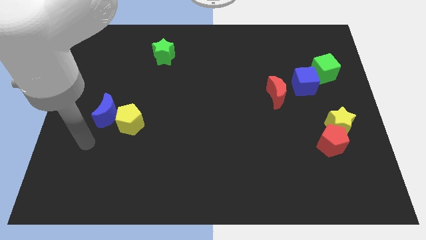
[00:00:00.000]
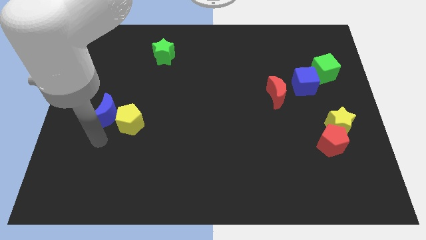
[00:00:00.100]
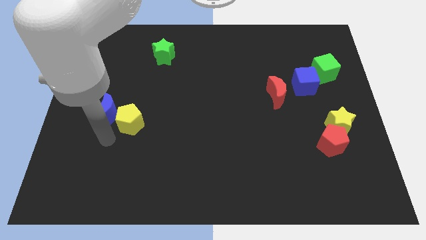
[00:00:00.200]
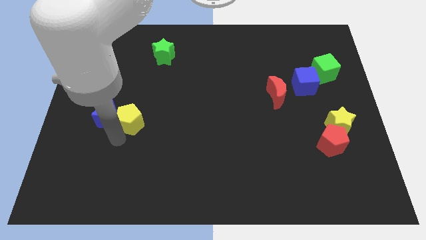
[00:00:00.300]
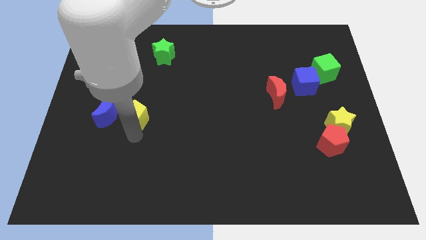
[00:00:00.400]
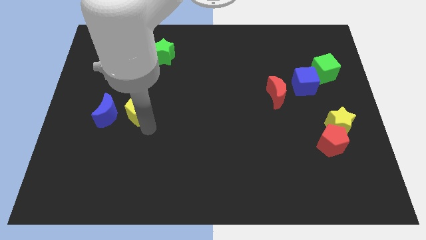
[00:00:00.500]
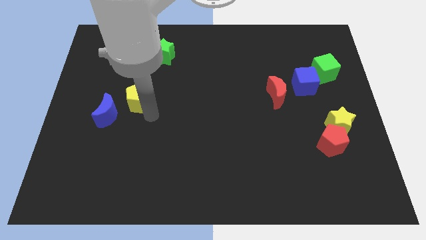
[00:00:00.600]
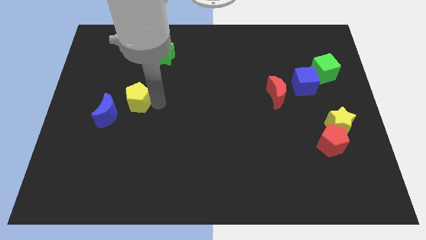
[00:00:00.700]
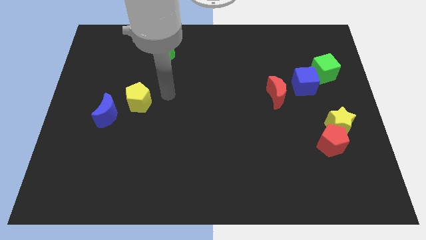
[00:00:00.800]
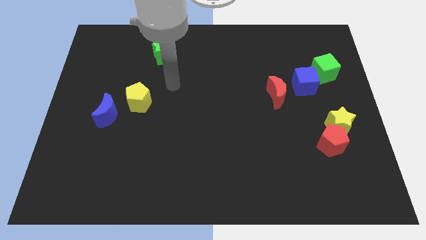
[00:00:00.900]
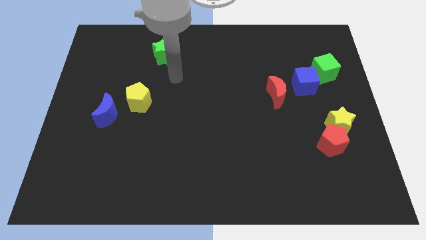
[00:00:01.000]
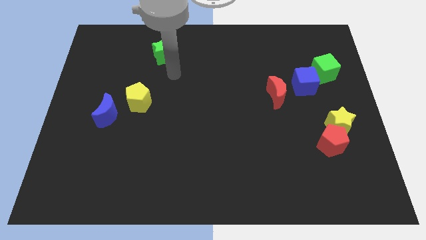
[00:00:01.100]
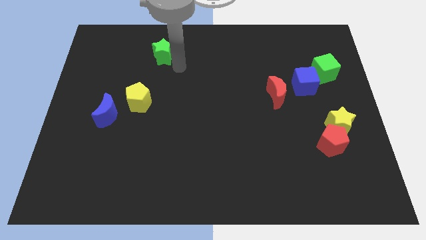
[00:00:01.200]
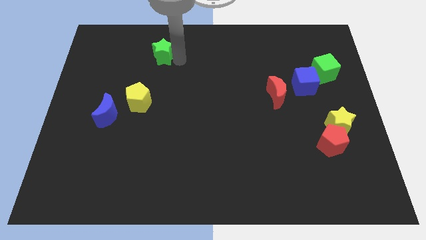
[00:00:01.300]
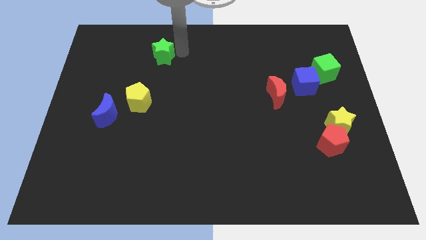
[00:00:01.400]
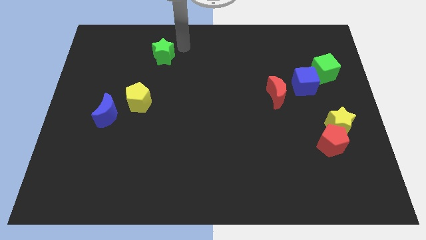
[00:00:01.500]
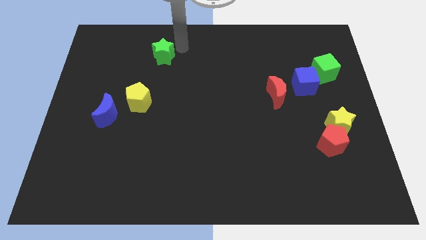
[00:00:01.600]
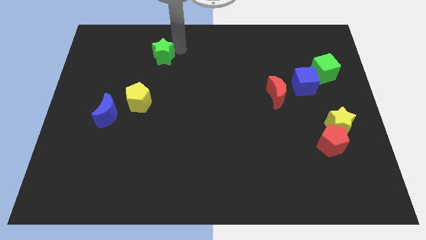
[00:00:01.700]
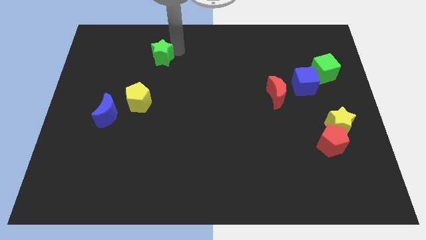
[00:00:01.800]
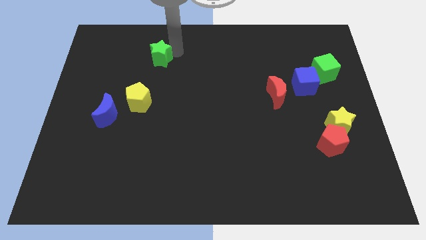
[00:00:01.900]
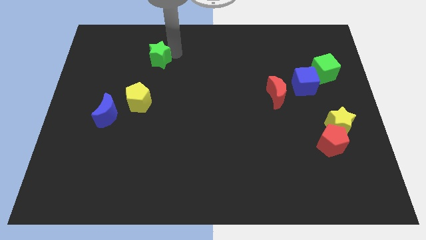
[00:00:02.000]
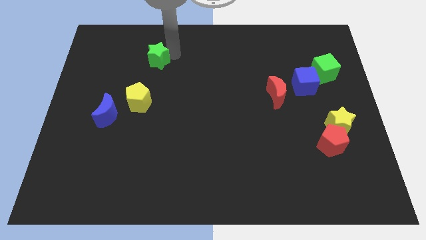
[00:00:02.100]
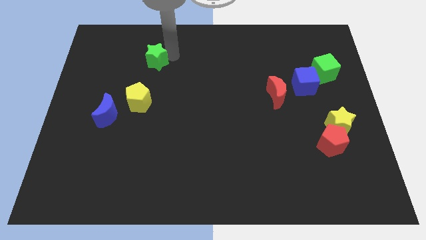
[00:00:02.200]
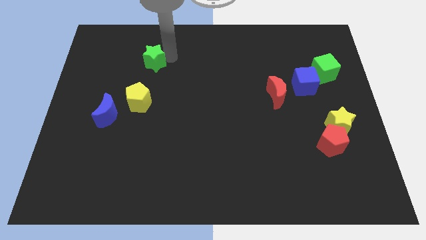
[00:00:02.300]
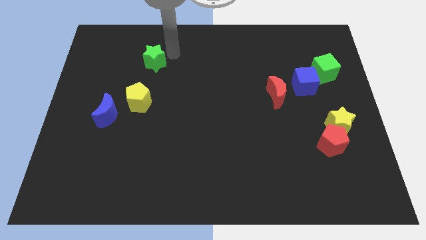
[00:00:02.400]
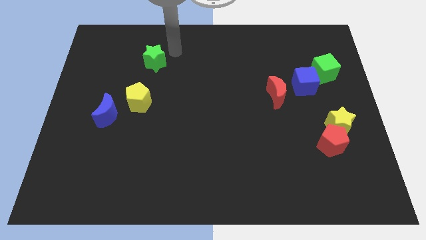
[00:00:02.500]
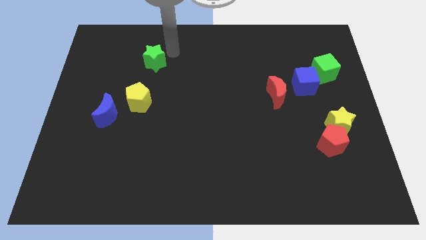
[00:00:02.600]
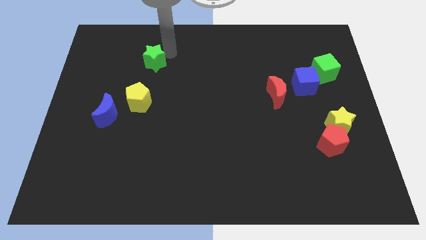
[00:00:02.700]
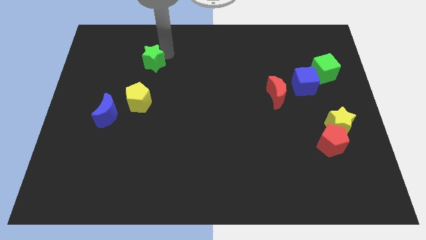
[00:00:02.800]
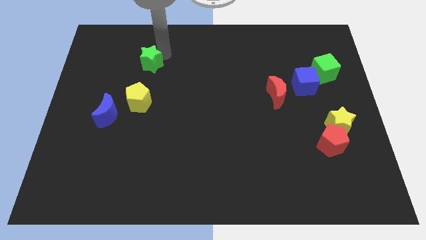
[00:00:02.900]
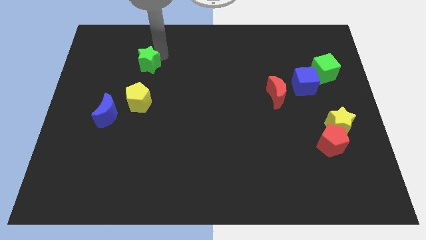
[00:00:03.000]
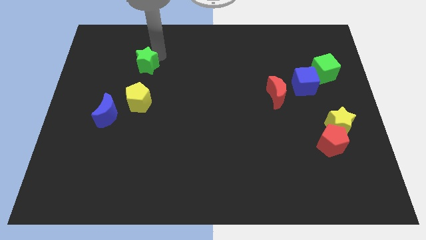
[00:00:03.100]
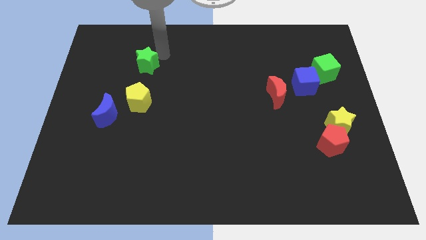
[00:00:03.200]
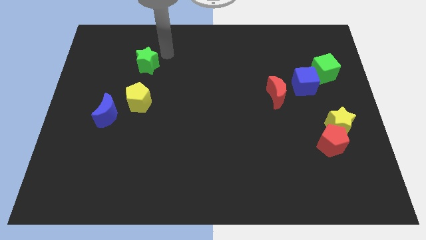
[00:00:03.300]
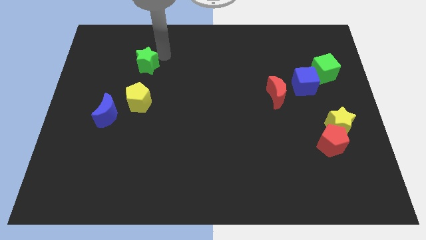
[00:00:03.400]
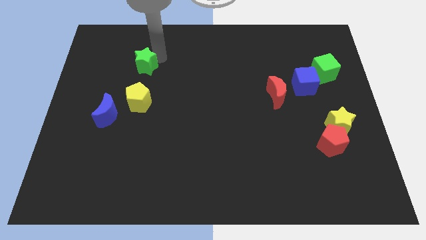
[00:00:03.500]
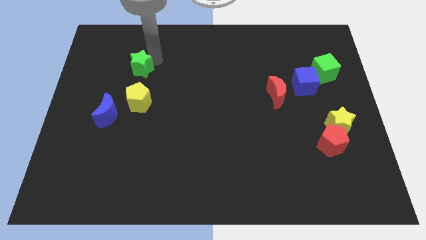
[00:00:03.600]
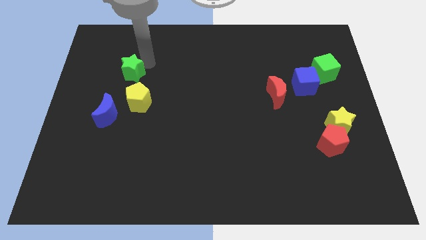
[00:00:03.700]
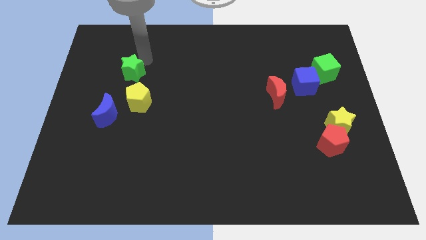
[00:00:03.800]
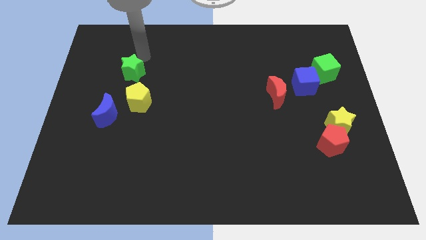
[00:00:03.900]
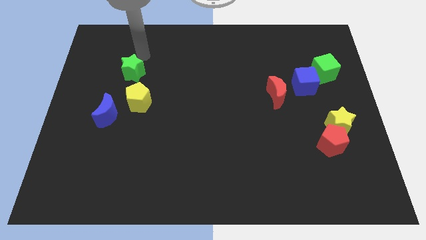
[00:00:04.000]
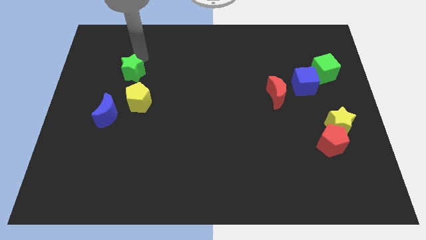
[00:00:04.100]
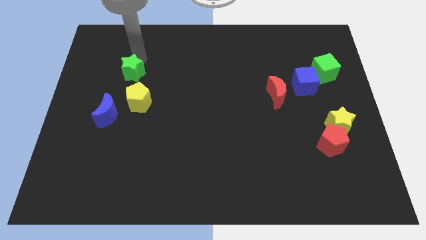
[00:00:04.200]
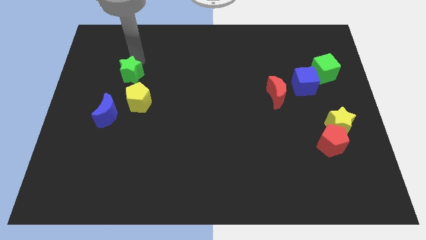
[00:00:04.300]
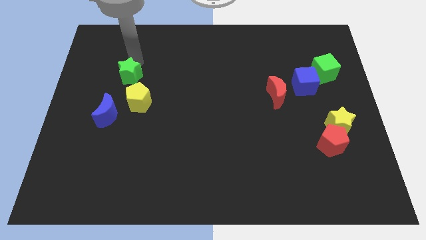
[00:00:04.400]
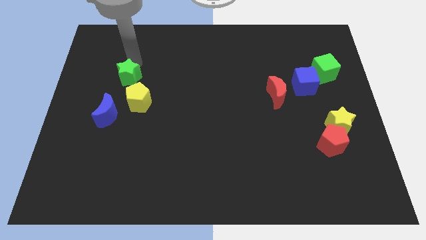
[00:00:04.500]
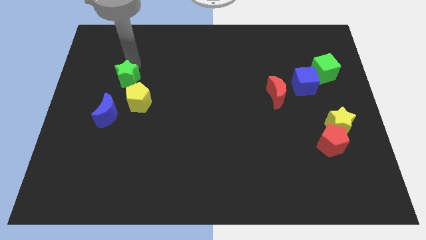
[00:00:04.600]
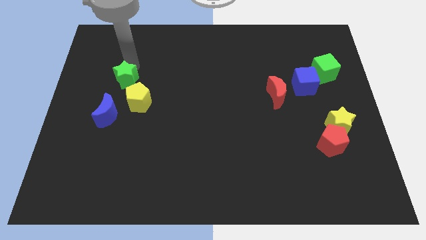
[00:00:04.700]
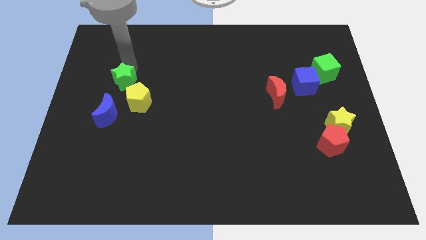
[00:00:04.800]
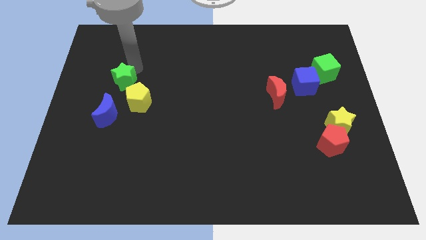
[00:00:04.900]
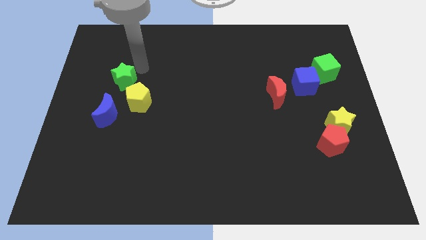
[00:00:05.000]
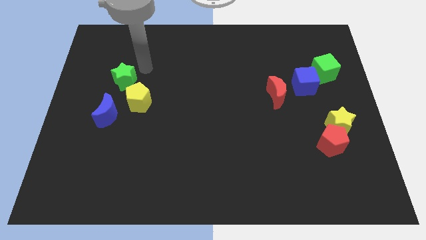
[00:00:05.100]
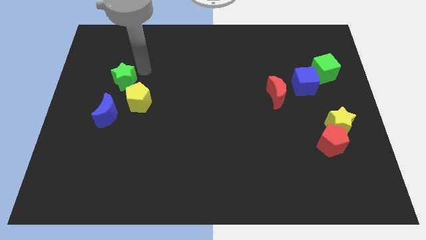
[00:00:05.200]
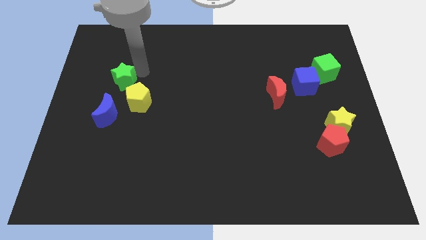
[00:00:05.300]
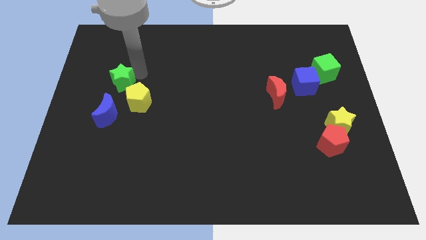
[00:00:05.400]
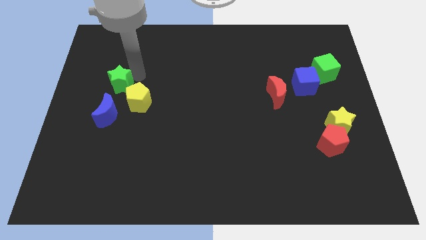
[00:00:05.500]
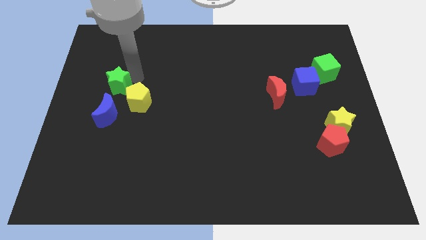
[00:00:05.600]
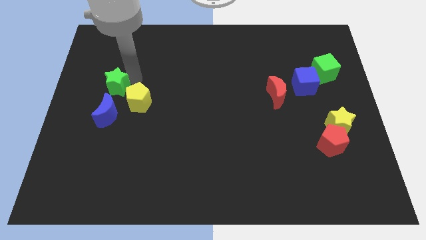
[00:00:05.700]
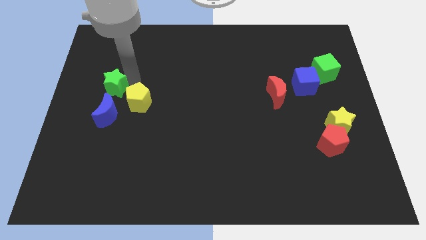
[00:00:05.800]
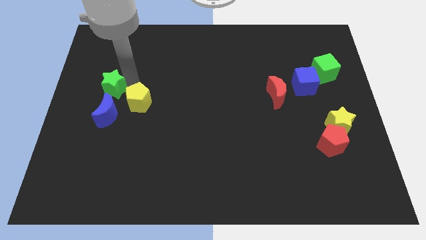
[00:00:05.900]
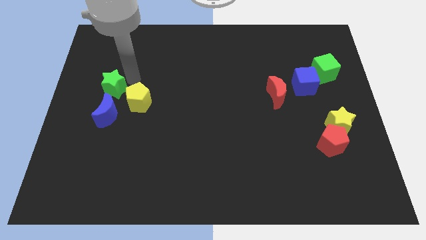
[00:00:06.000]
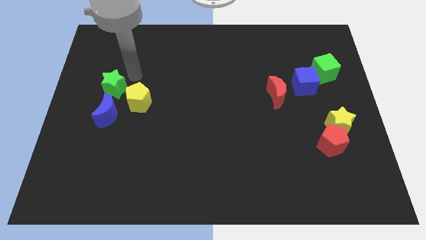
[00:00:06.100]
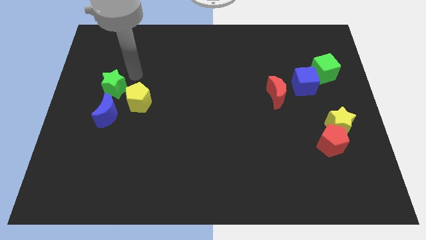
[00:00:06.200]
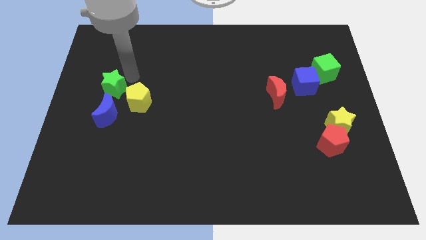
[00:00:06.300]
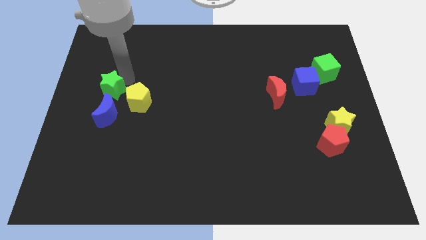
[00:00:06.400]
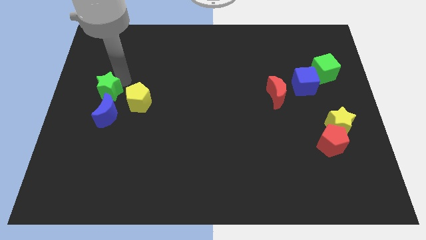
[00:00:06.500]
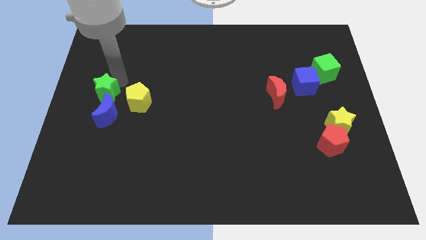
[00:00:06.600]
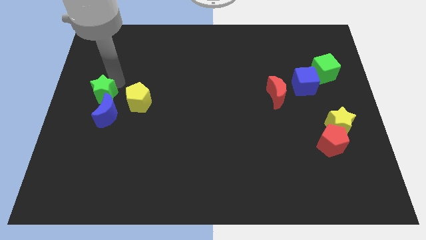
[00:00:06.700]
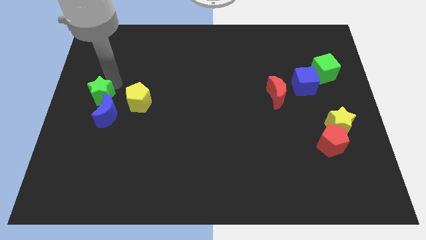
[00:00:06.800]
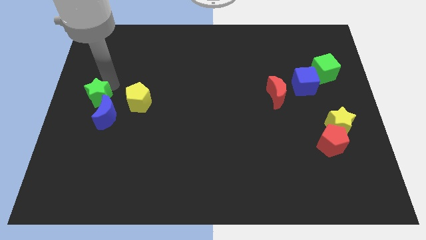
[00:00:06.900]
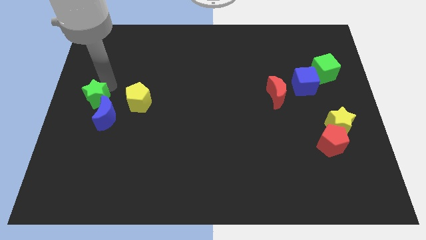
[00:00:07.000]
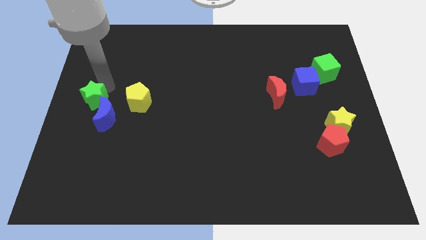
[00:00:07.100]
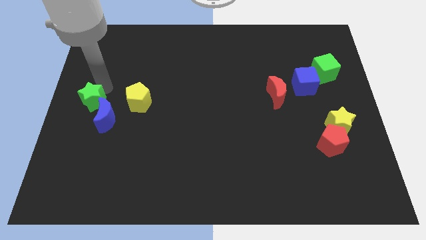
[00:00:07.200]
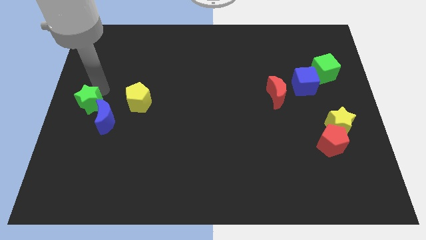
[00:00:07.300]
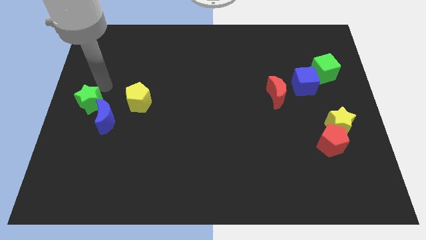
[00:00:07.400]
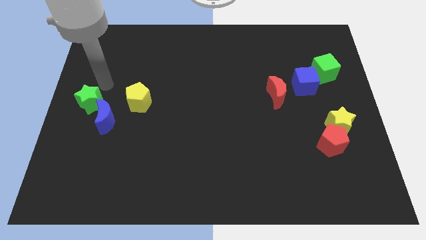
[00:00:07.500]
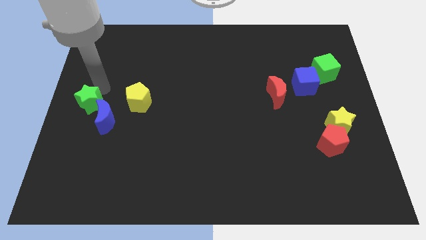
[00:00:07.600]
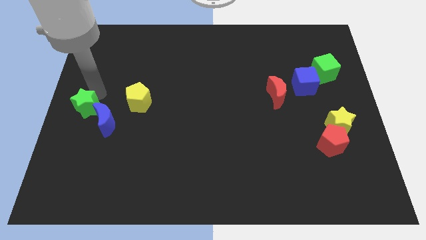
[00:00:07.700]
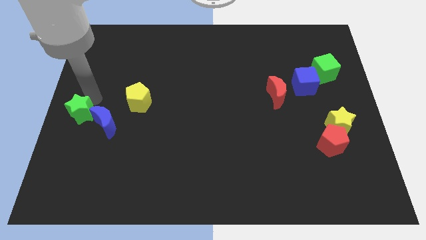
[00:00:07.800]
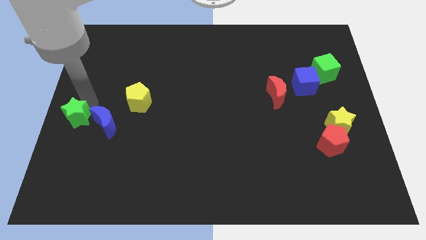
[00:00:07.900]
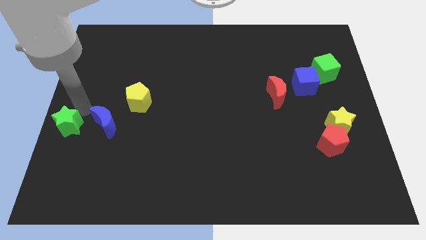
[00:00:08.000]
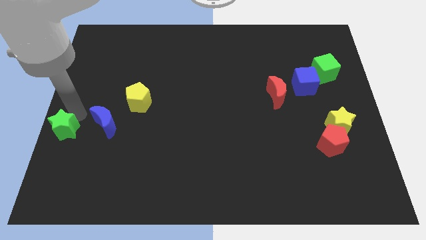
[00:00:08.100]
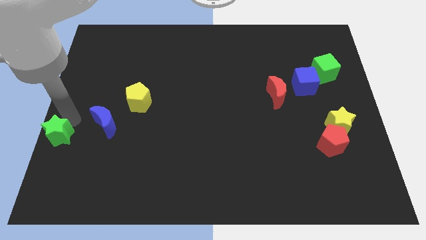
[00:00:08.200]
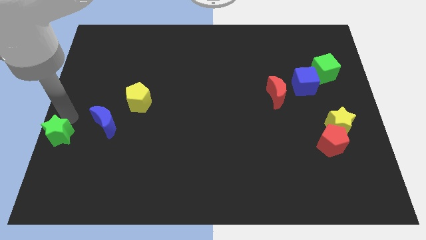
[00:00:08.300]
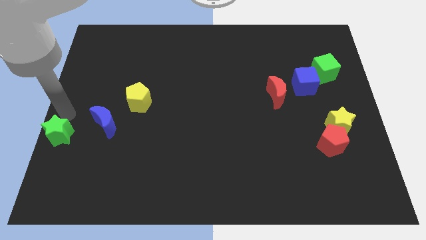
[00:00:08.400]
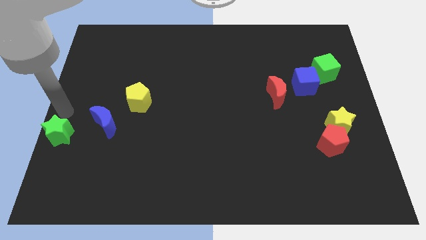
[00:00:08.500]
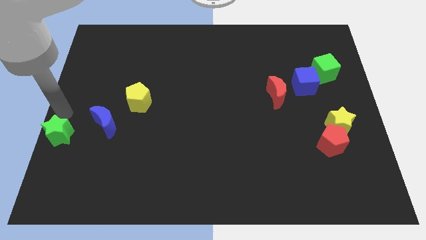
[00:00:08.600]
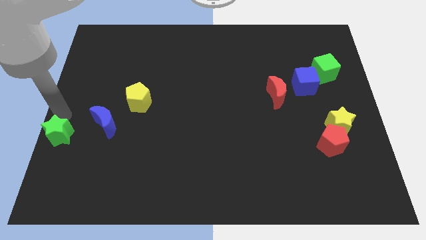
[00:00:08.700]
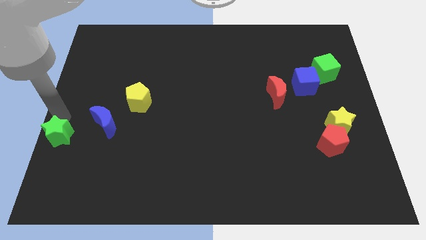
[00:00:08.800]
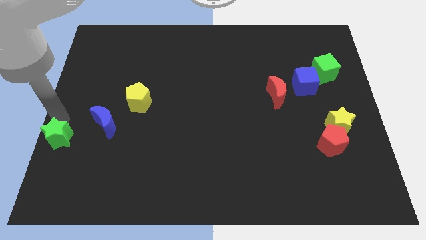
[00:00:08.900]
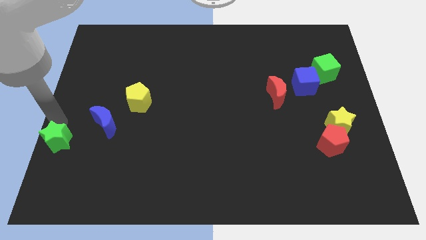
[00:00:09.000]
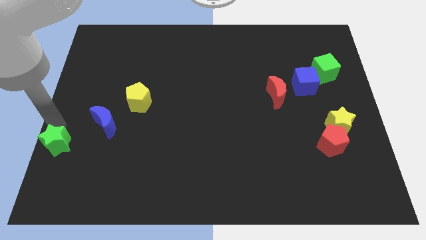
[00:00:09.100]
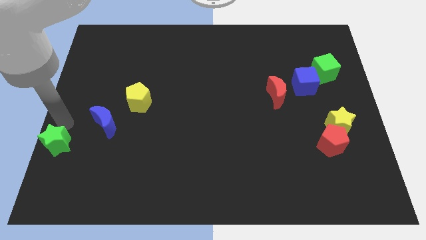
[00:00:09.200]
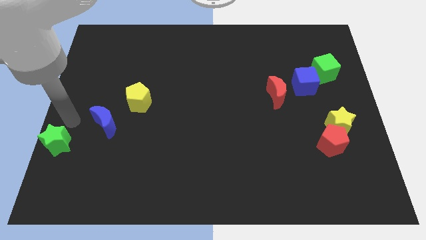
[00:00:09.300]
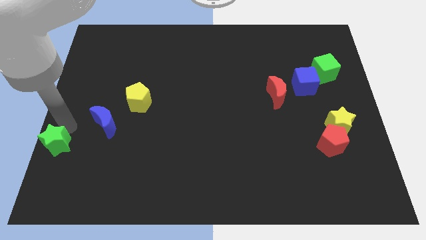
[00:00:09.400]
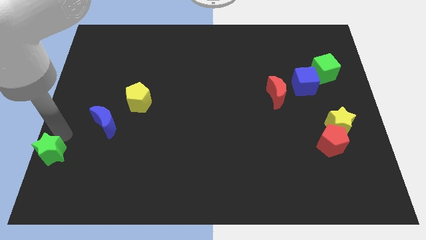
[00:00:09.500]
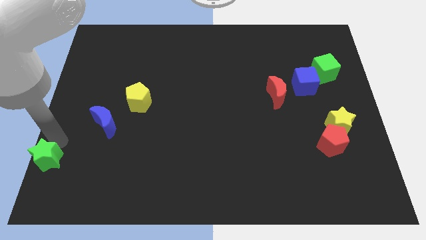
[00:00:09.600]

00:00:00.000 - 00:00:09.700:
push the green star to the bottom left
